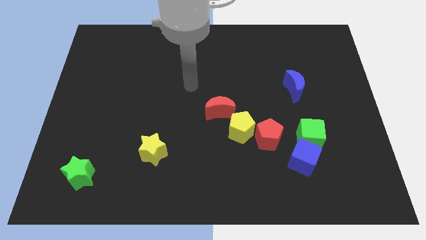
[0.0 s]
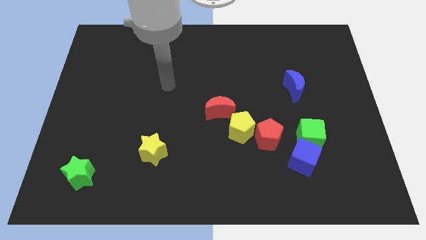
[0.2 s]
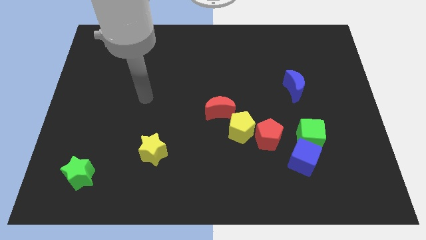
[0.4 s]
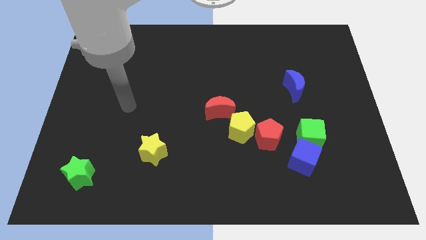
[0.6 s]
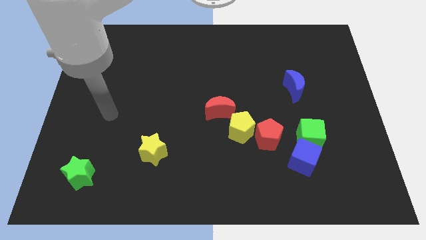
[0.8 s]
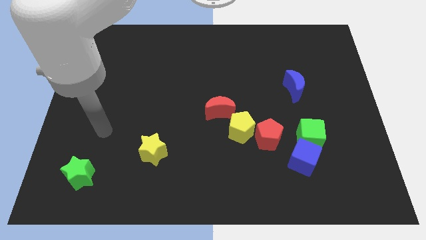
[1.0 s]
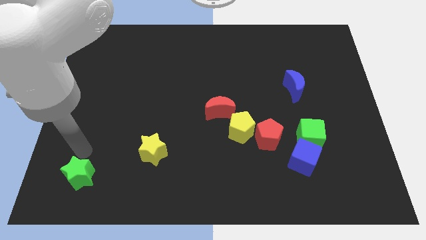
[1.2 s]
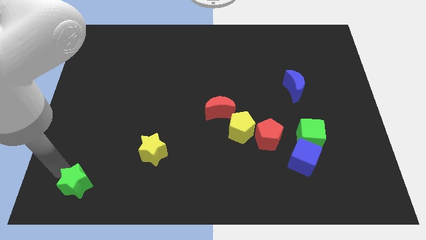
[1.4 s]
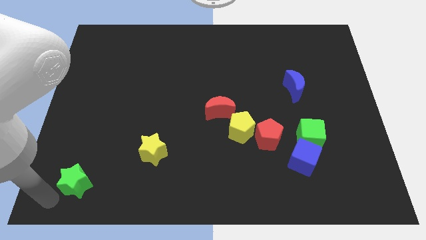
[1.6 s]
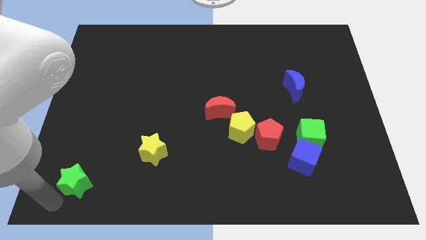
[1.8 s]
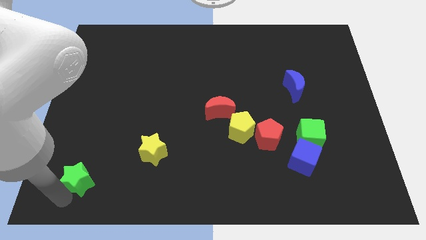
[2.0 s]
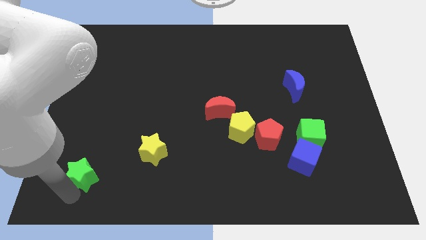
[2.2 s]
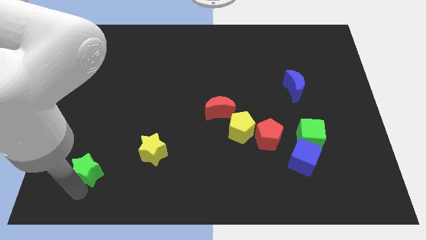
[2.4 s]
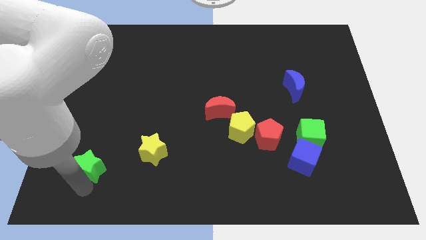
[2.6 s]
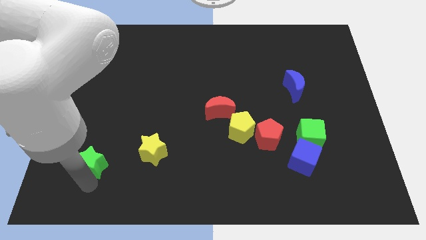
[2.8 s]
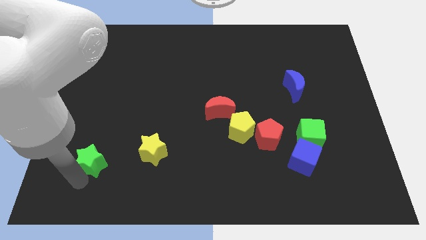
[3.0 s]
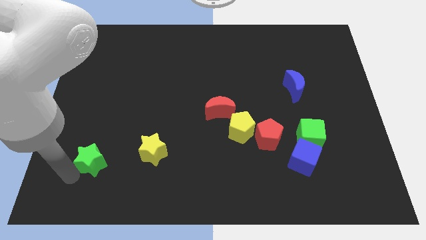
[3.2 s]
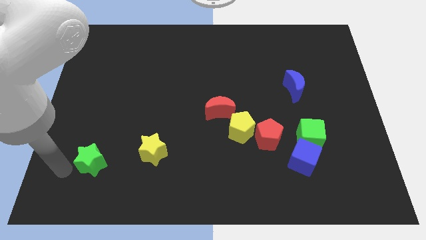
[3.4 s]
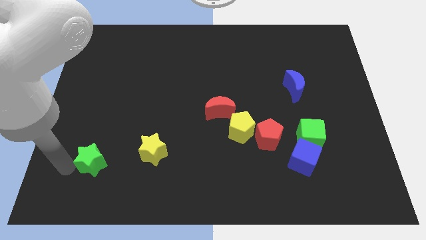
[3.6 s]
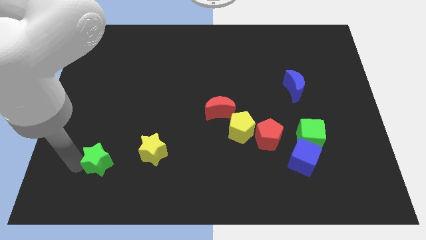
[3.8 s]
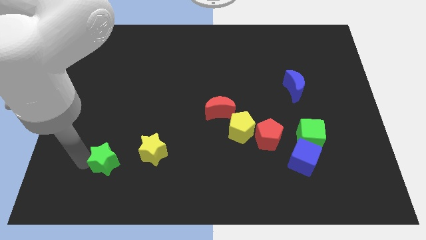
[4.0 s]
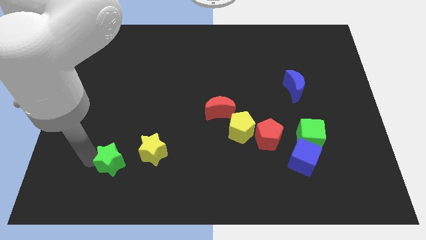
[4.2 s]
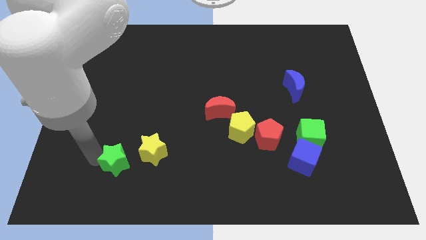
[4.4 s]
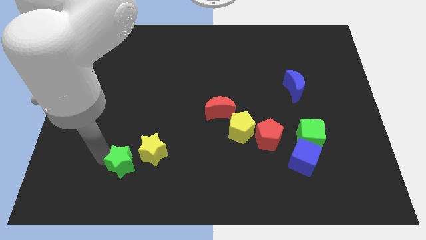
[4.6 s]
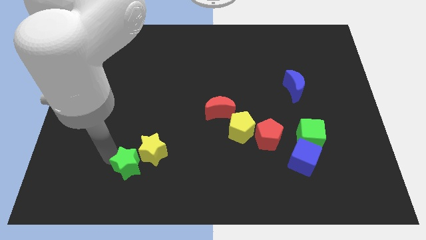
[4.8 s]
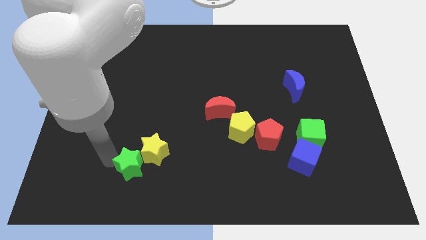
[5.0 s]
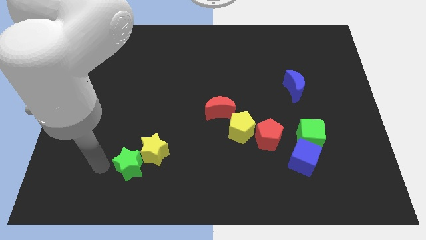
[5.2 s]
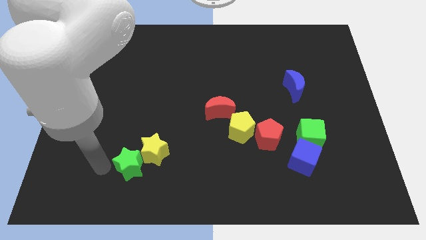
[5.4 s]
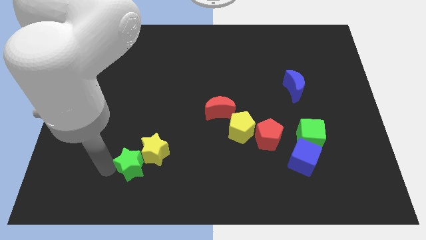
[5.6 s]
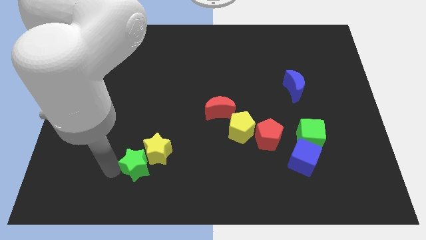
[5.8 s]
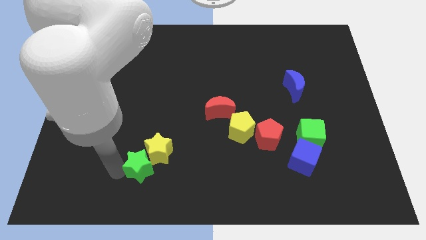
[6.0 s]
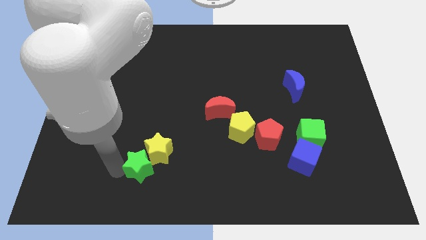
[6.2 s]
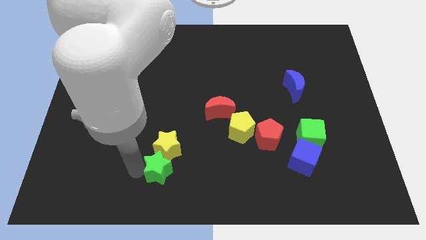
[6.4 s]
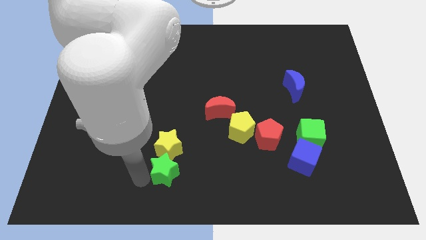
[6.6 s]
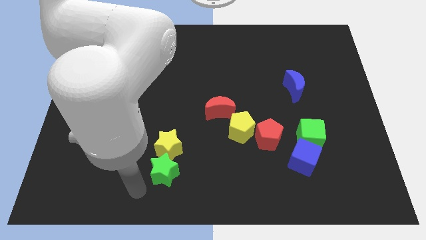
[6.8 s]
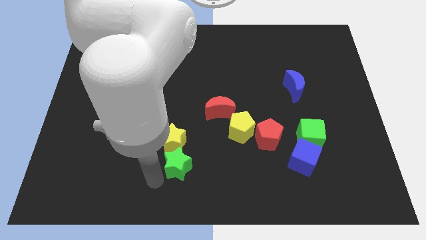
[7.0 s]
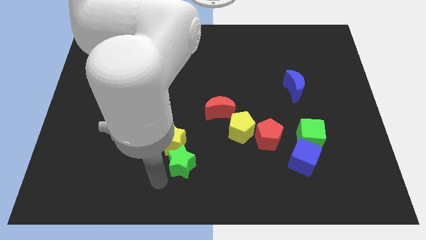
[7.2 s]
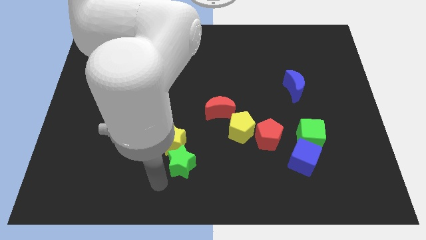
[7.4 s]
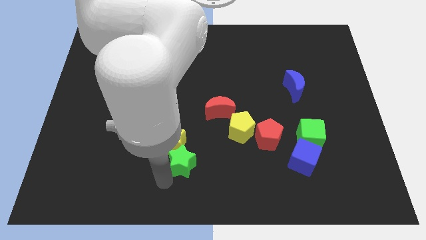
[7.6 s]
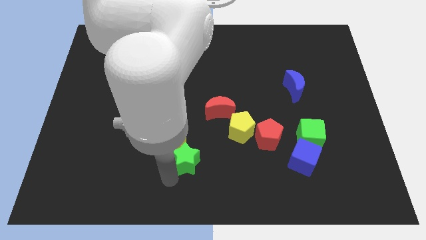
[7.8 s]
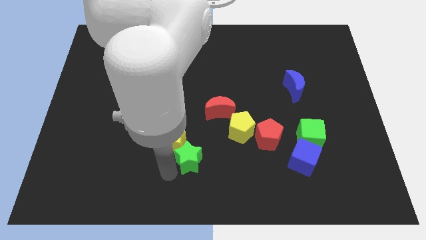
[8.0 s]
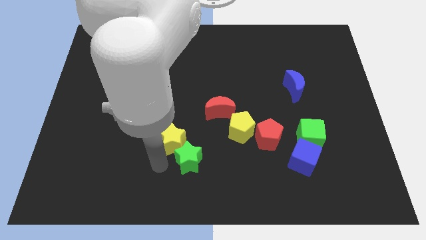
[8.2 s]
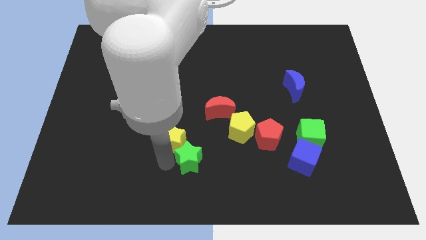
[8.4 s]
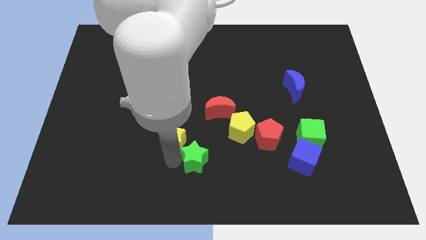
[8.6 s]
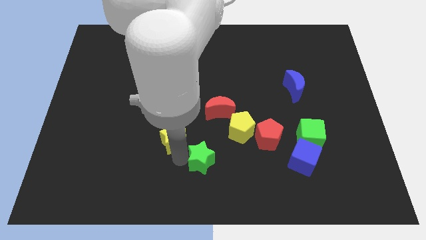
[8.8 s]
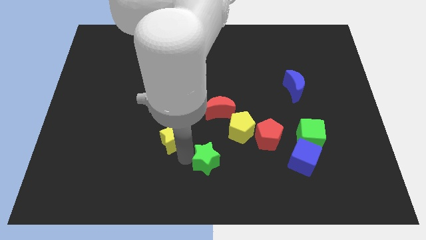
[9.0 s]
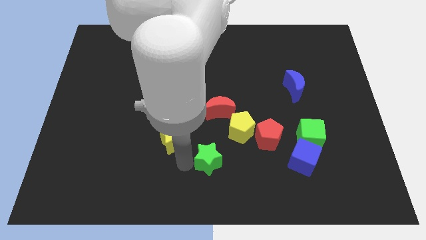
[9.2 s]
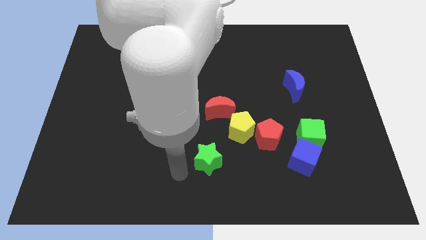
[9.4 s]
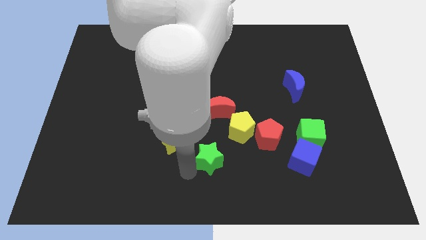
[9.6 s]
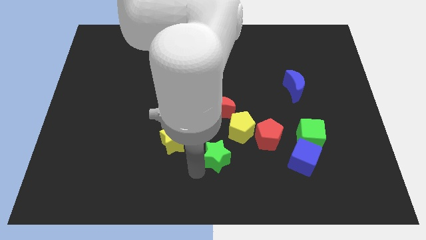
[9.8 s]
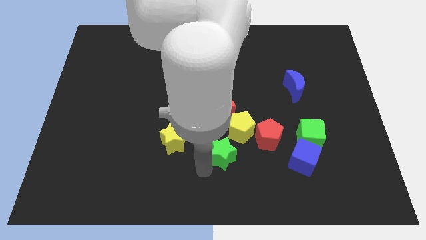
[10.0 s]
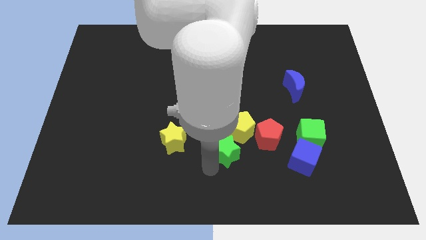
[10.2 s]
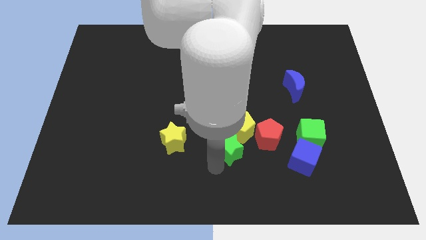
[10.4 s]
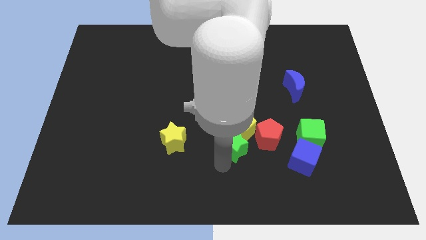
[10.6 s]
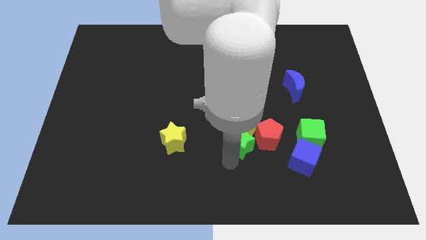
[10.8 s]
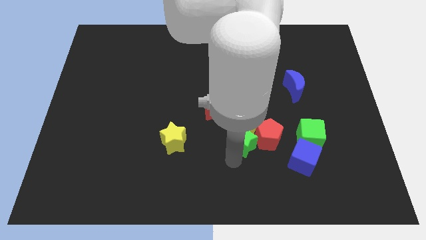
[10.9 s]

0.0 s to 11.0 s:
put the green star to the red pentagon

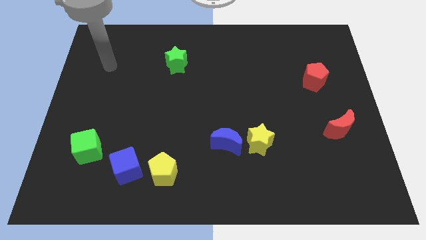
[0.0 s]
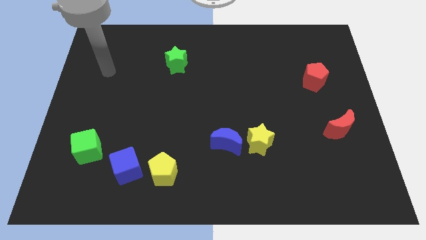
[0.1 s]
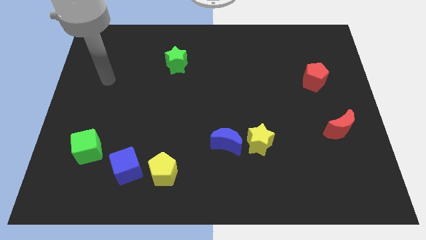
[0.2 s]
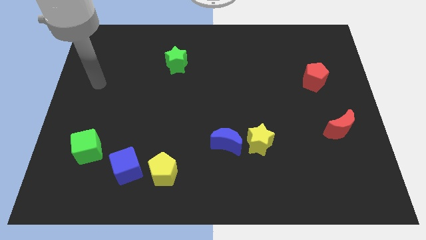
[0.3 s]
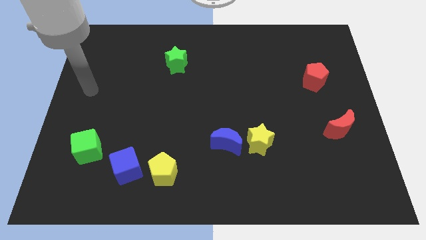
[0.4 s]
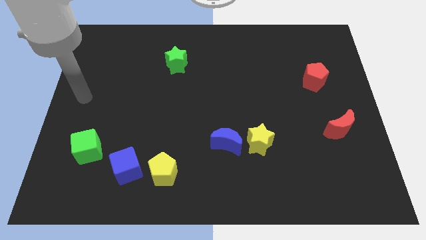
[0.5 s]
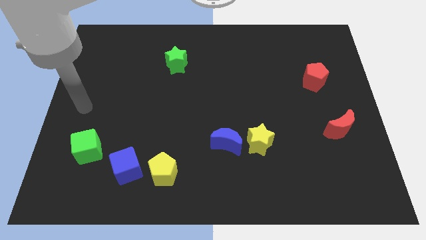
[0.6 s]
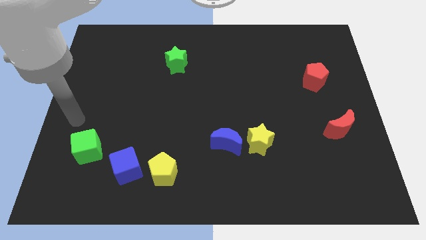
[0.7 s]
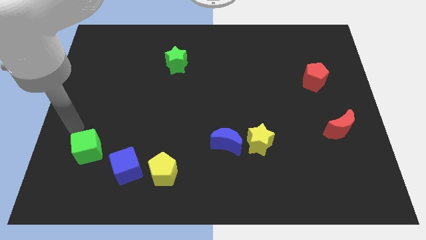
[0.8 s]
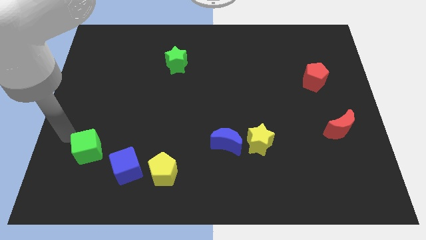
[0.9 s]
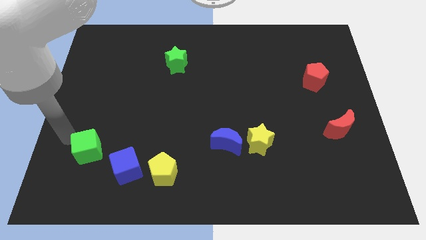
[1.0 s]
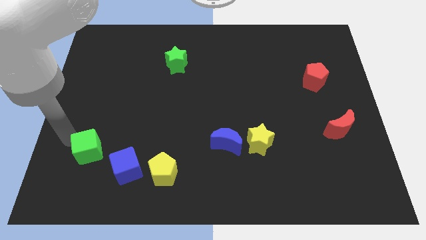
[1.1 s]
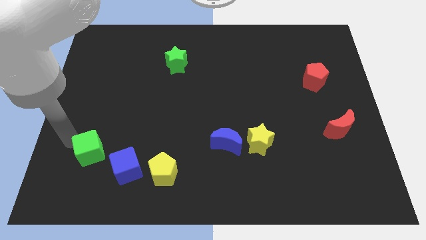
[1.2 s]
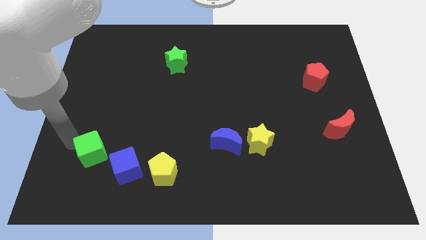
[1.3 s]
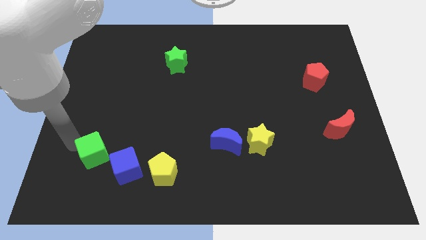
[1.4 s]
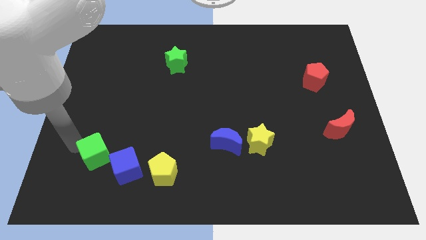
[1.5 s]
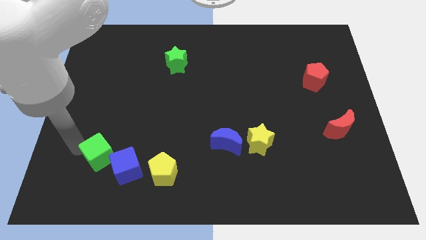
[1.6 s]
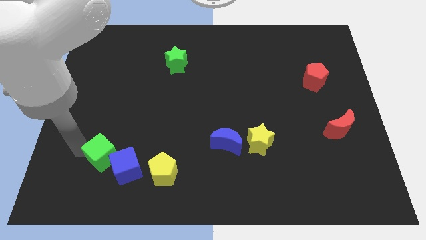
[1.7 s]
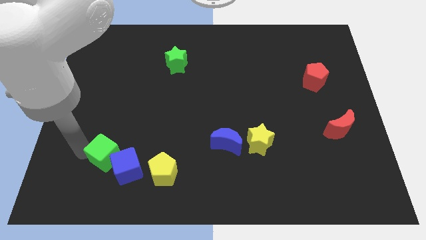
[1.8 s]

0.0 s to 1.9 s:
move the green cube to the blue cube
